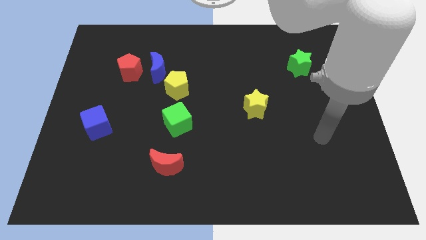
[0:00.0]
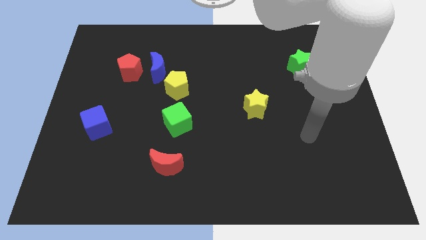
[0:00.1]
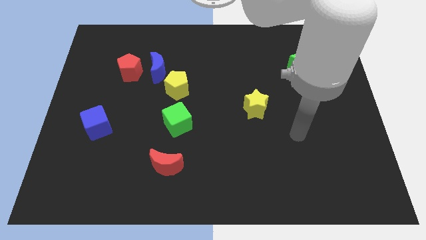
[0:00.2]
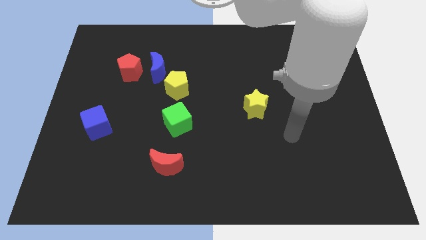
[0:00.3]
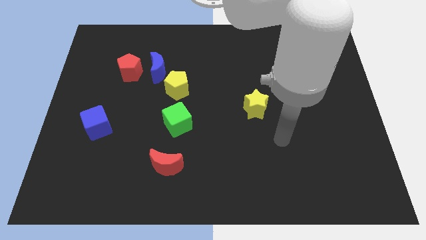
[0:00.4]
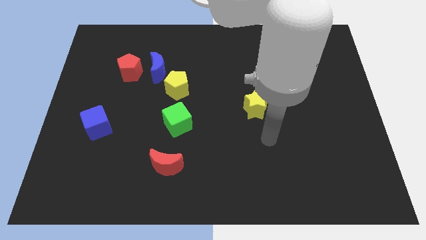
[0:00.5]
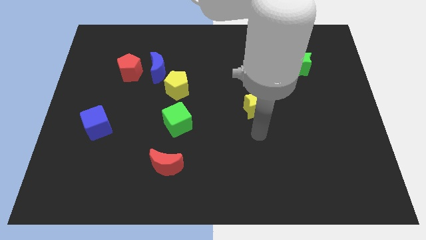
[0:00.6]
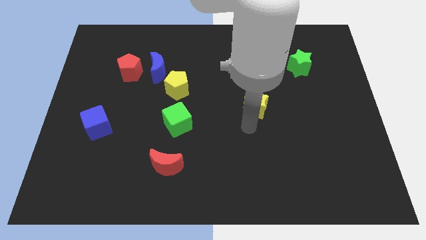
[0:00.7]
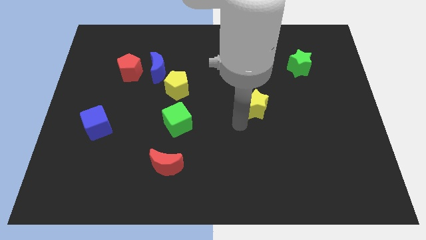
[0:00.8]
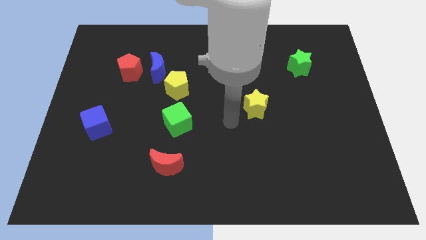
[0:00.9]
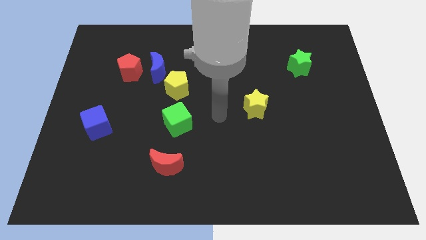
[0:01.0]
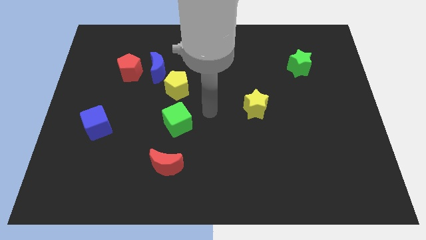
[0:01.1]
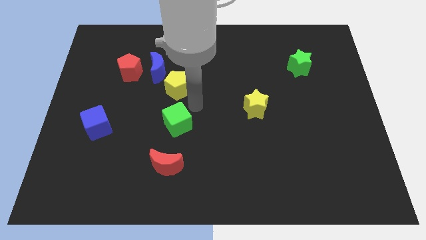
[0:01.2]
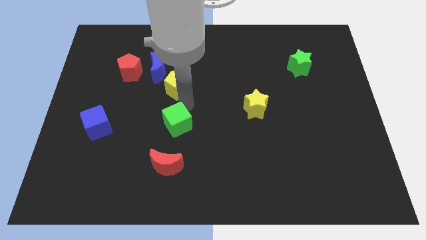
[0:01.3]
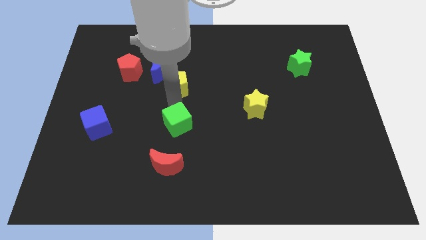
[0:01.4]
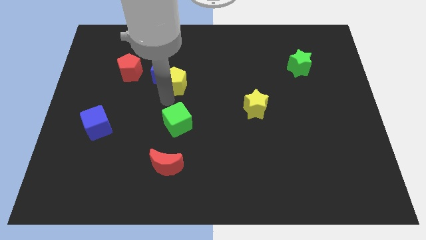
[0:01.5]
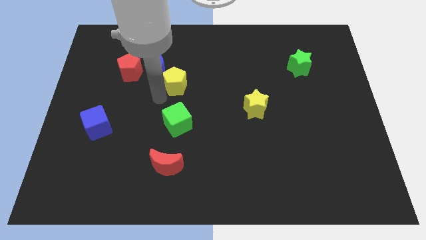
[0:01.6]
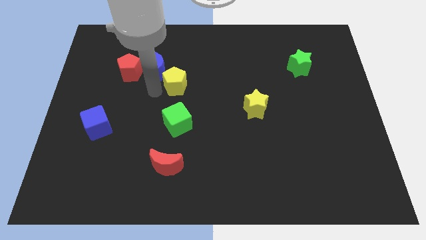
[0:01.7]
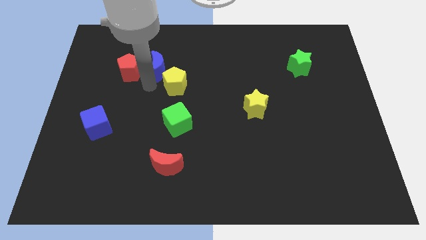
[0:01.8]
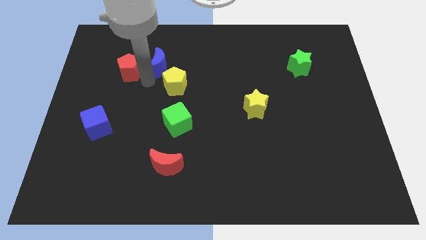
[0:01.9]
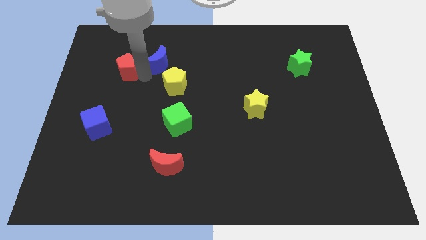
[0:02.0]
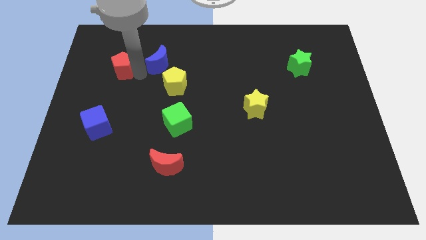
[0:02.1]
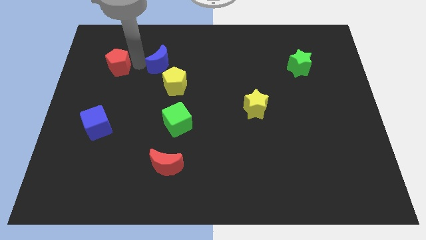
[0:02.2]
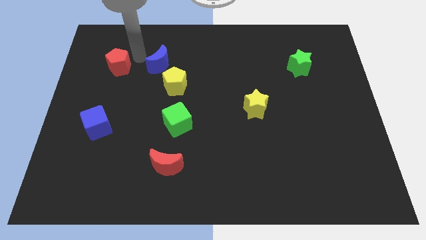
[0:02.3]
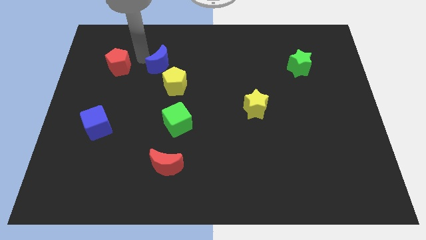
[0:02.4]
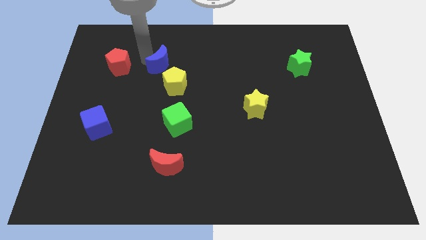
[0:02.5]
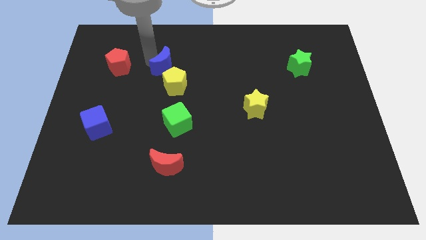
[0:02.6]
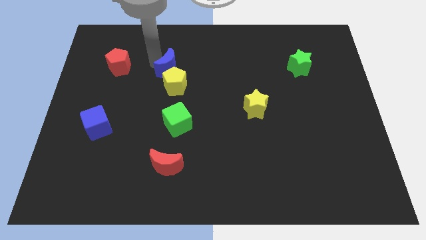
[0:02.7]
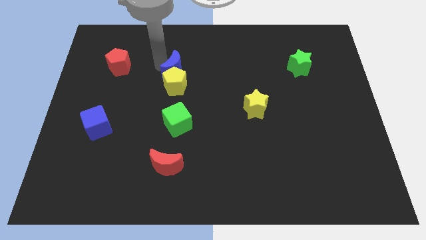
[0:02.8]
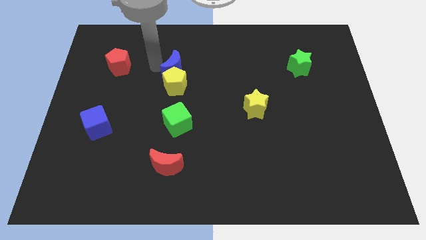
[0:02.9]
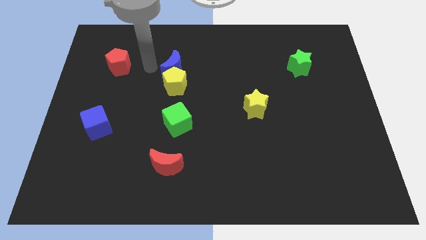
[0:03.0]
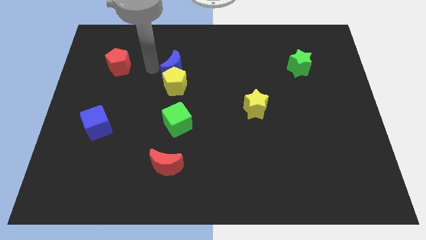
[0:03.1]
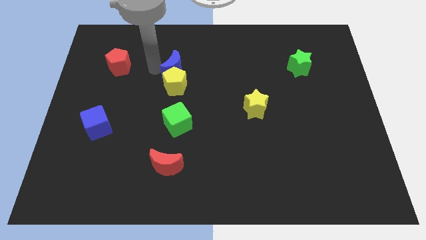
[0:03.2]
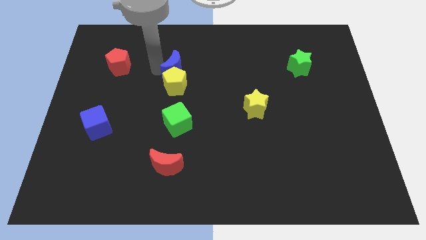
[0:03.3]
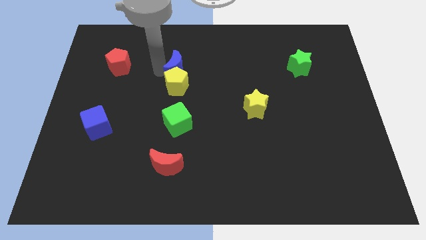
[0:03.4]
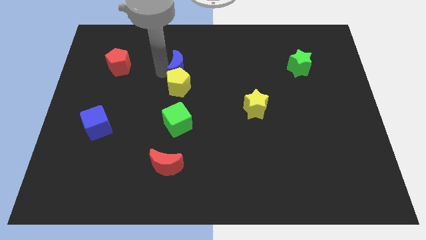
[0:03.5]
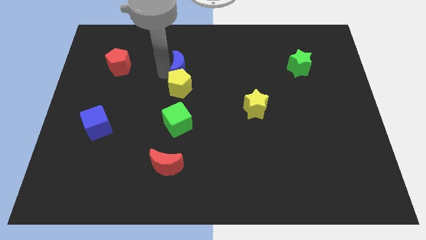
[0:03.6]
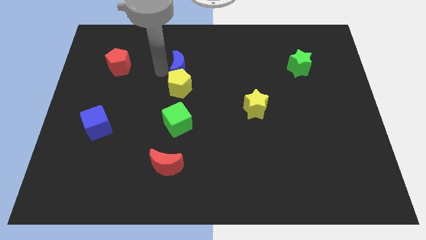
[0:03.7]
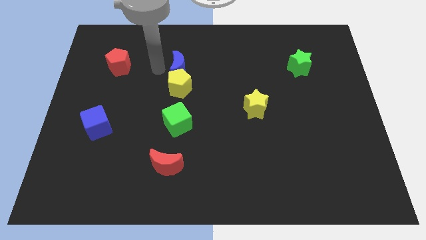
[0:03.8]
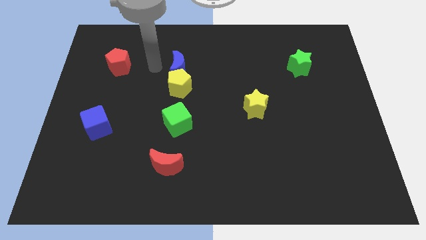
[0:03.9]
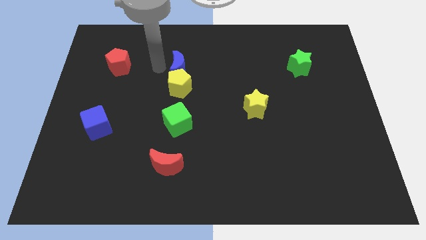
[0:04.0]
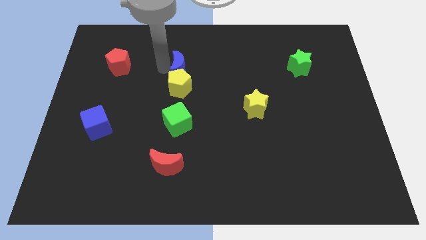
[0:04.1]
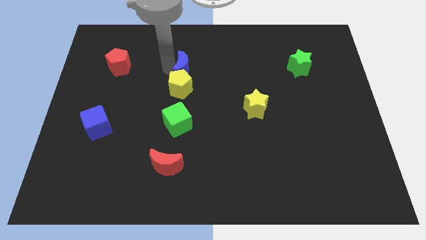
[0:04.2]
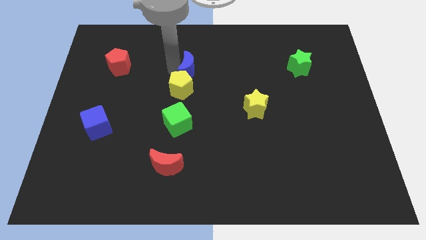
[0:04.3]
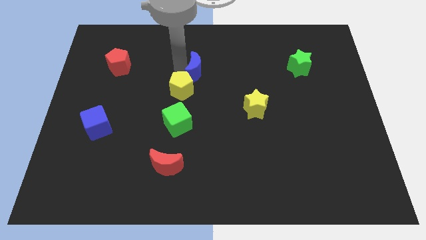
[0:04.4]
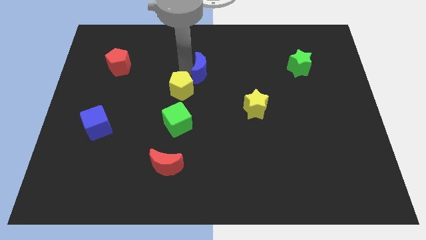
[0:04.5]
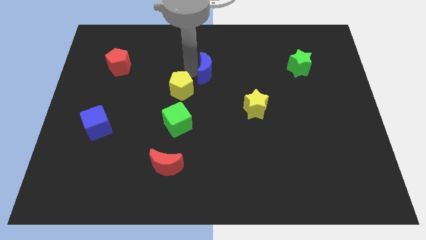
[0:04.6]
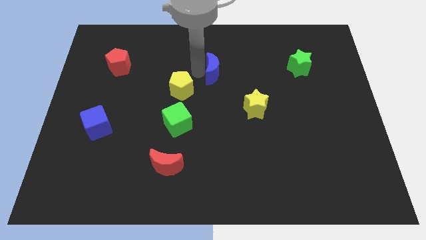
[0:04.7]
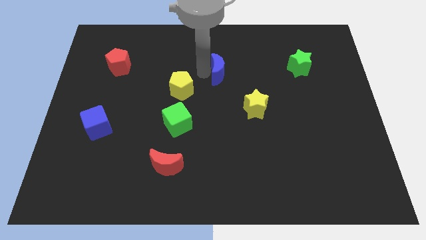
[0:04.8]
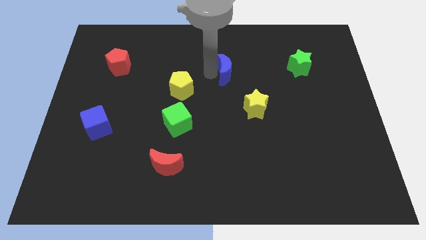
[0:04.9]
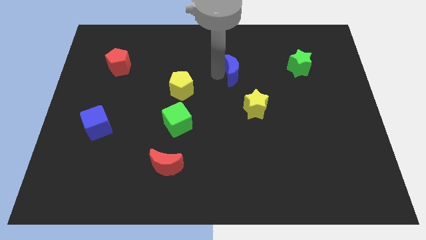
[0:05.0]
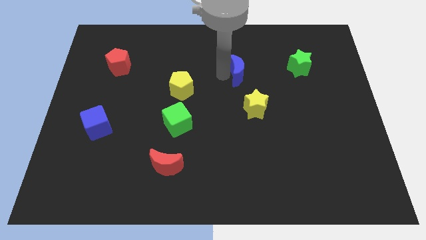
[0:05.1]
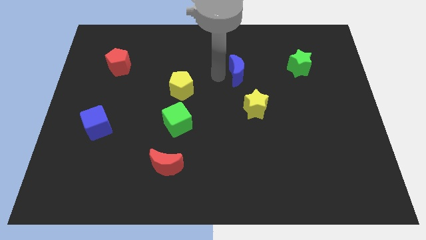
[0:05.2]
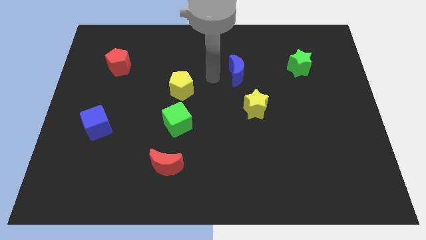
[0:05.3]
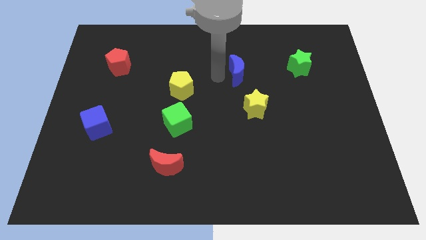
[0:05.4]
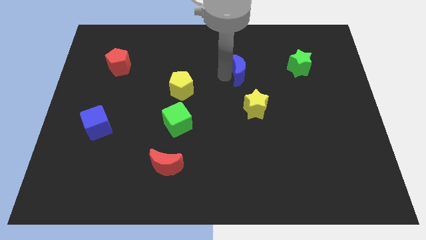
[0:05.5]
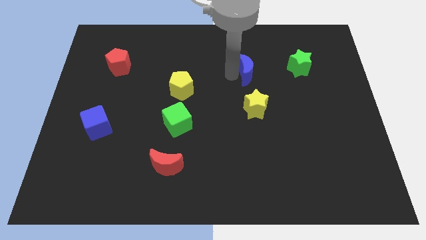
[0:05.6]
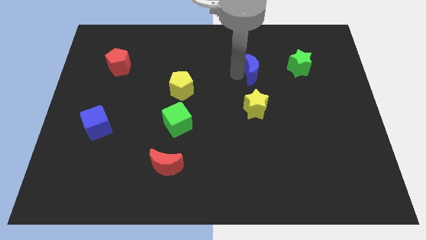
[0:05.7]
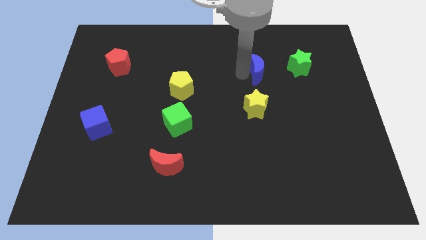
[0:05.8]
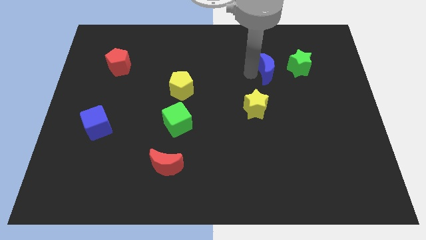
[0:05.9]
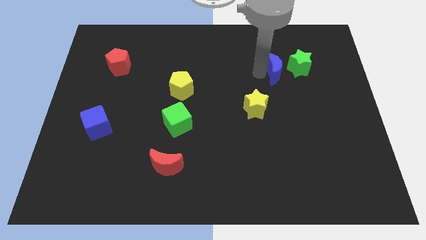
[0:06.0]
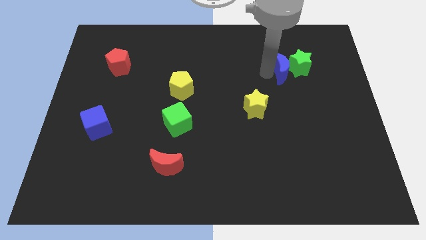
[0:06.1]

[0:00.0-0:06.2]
slide the blue moon towards the green star
